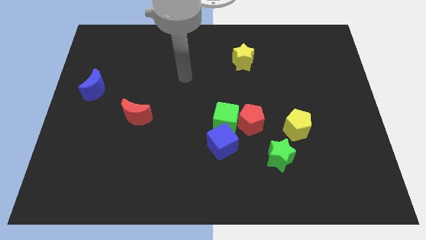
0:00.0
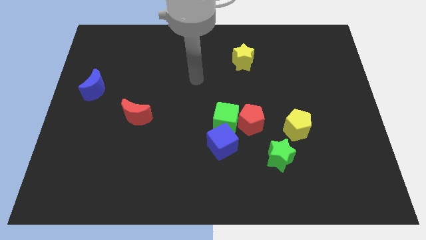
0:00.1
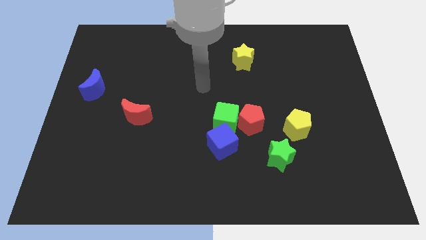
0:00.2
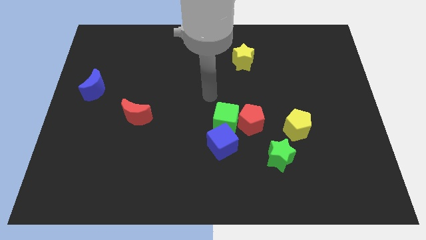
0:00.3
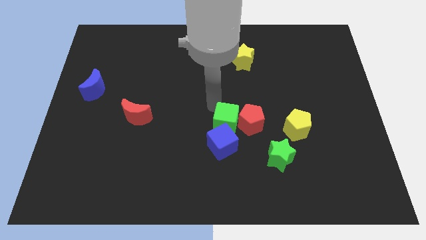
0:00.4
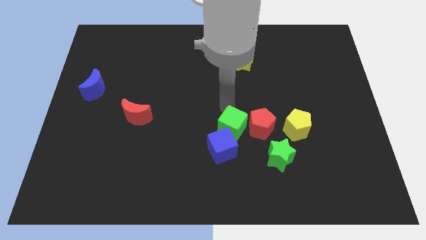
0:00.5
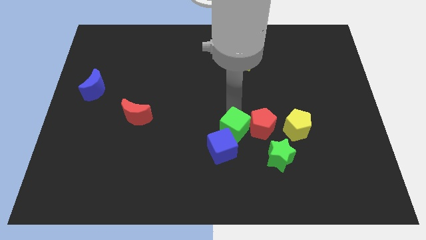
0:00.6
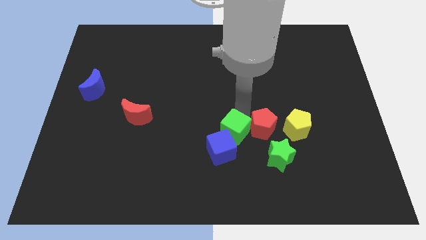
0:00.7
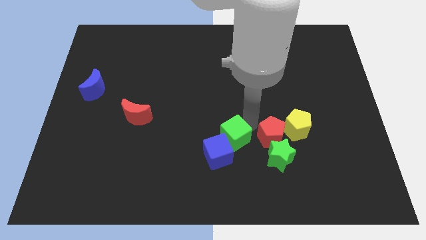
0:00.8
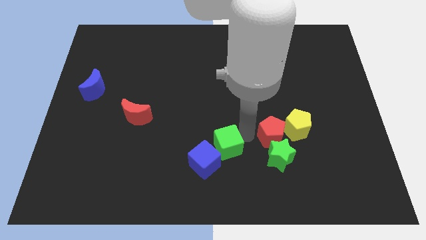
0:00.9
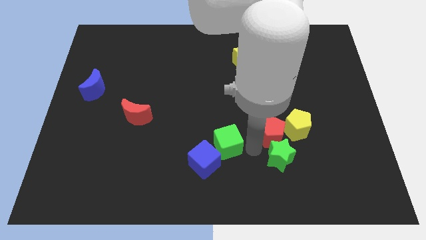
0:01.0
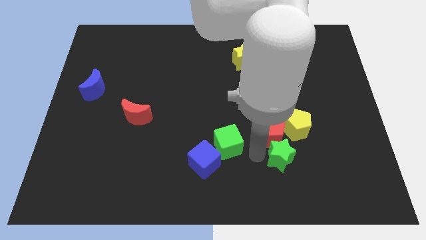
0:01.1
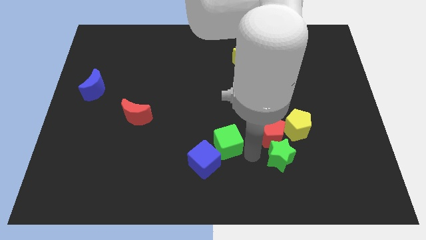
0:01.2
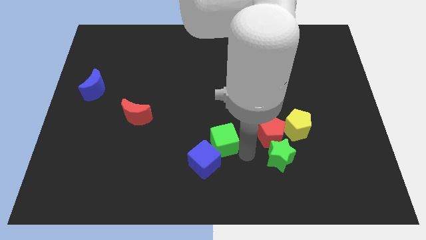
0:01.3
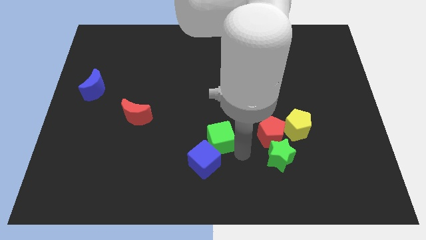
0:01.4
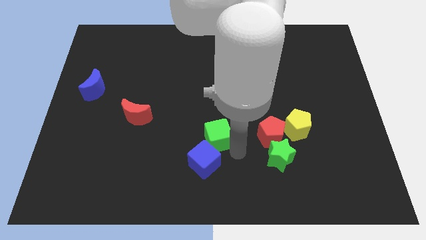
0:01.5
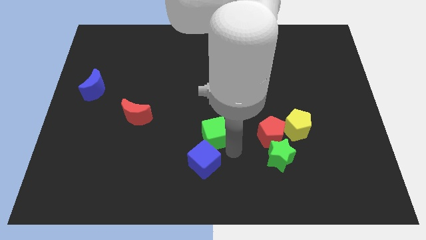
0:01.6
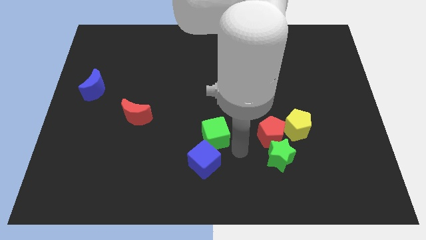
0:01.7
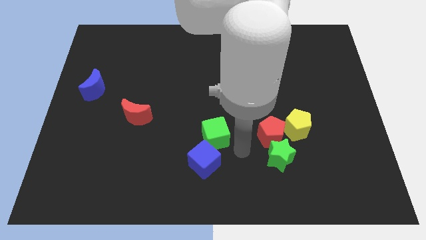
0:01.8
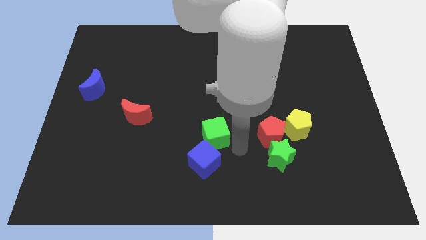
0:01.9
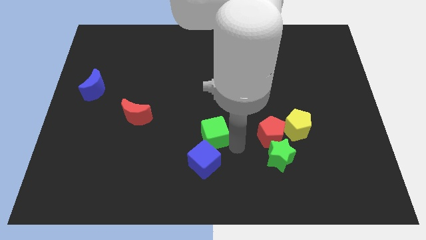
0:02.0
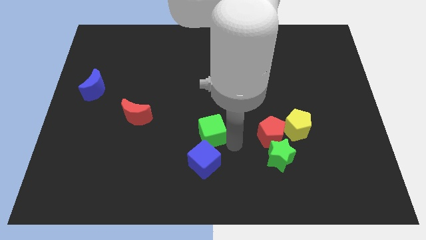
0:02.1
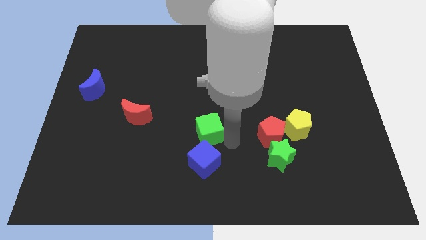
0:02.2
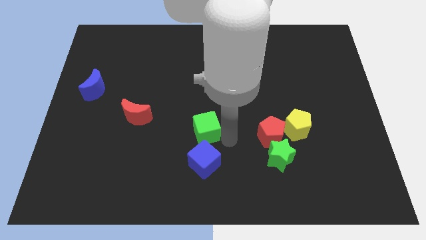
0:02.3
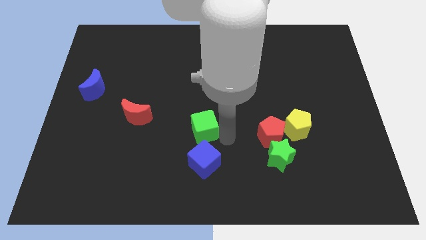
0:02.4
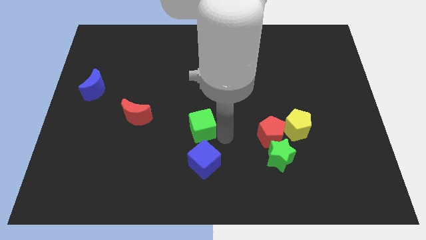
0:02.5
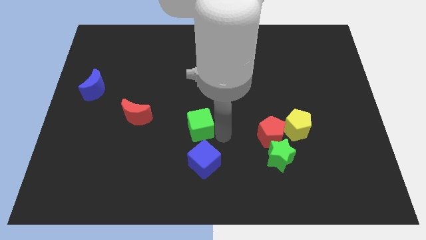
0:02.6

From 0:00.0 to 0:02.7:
separate the green cube from the red pentagon and blue cube

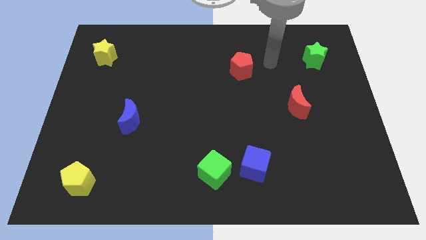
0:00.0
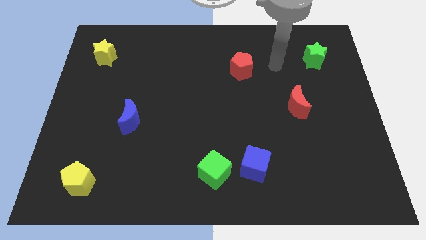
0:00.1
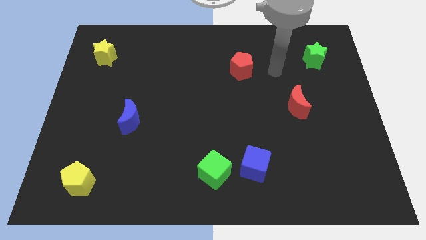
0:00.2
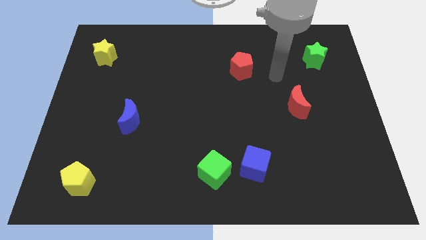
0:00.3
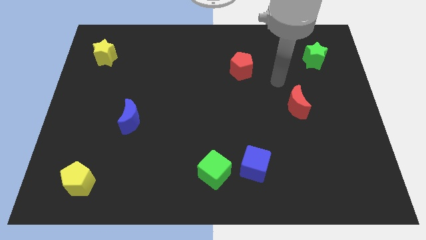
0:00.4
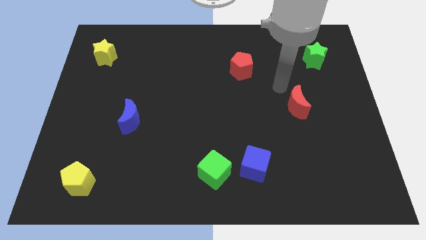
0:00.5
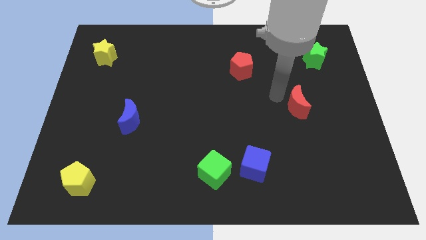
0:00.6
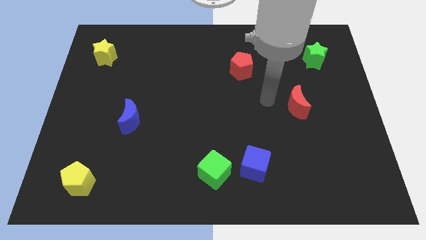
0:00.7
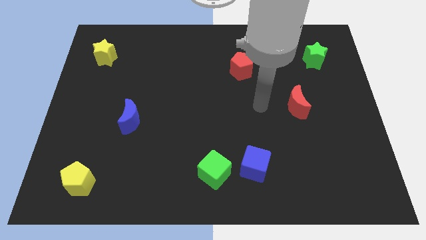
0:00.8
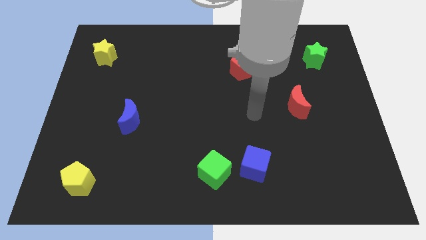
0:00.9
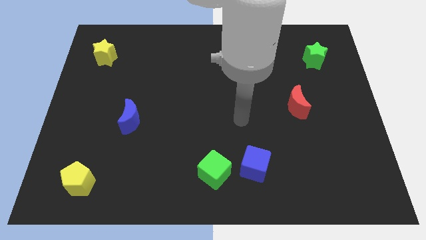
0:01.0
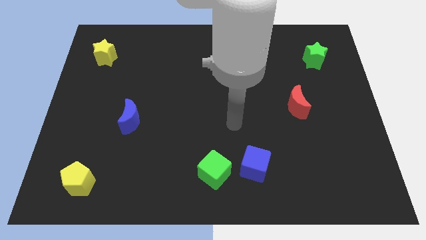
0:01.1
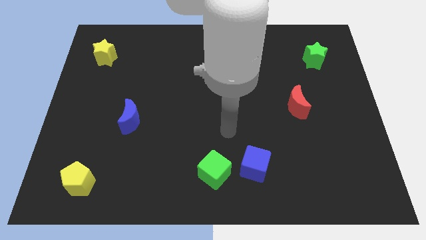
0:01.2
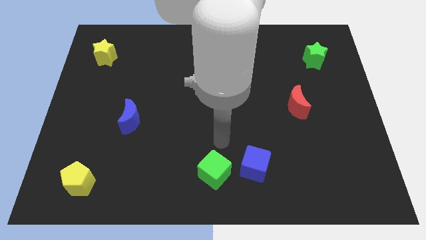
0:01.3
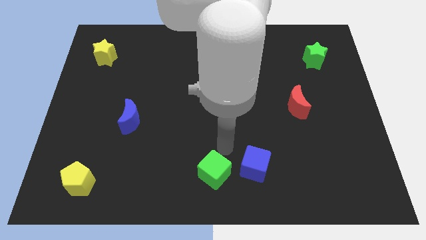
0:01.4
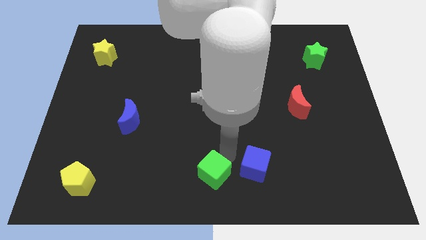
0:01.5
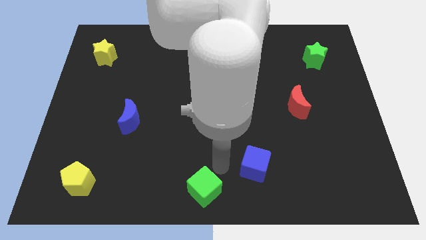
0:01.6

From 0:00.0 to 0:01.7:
move the blue cube away from the green cube

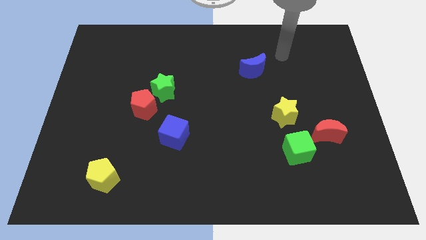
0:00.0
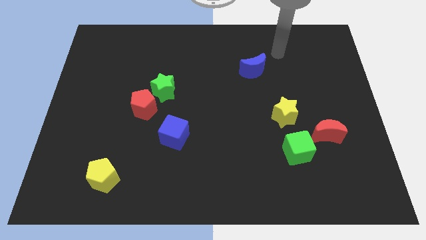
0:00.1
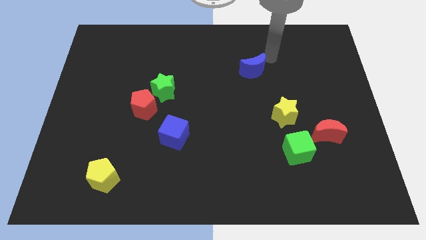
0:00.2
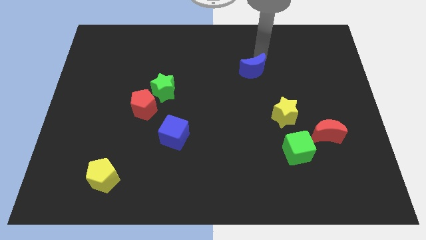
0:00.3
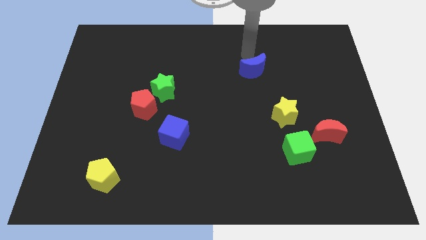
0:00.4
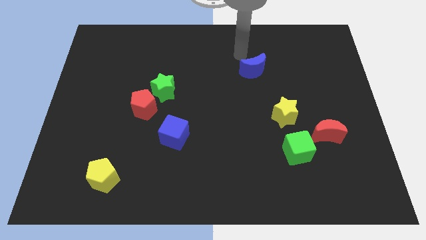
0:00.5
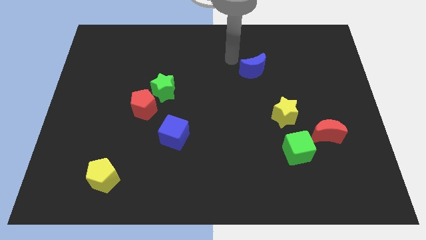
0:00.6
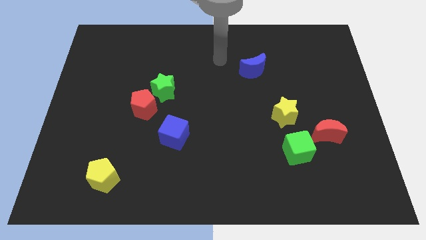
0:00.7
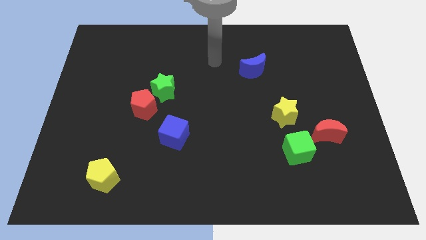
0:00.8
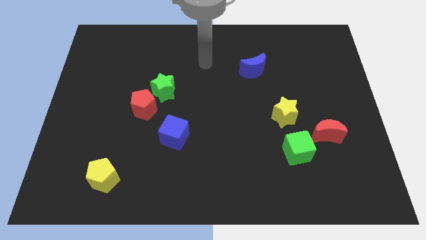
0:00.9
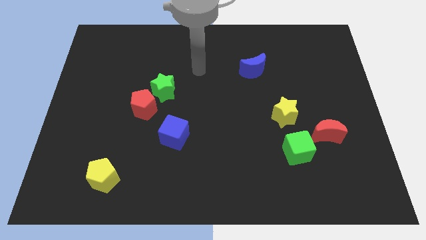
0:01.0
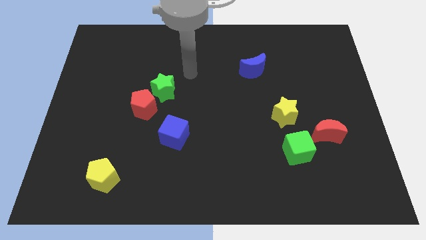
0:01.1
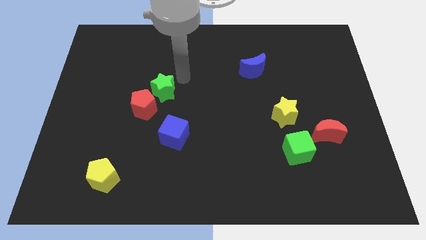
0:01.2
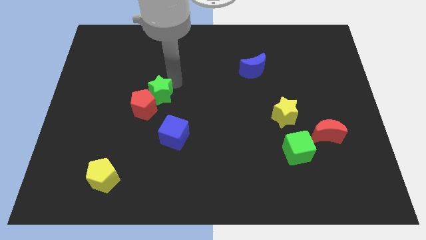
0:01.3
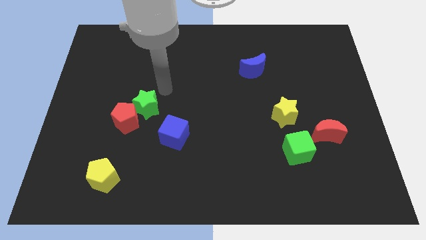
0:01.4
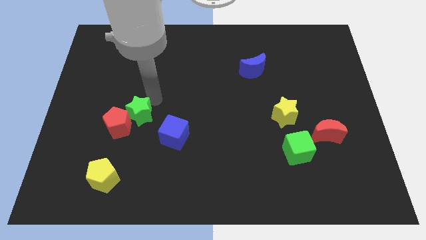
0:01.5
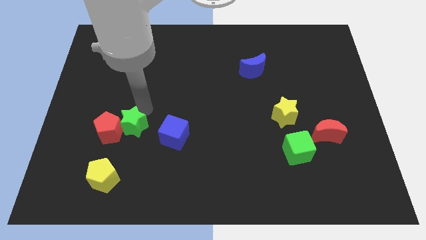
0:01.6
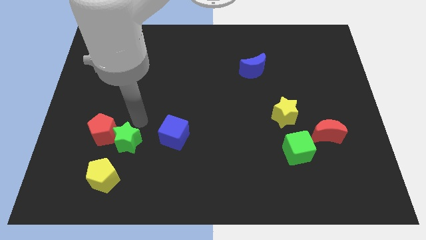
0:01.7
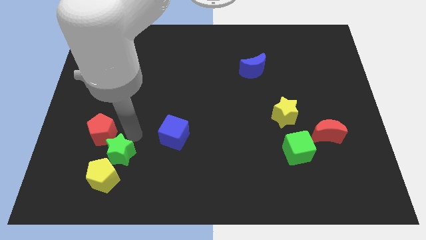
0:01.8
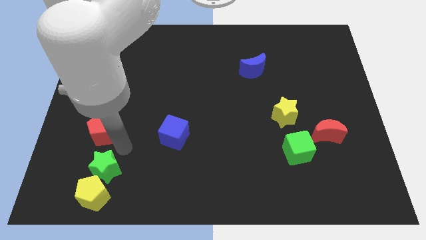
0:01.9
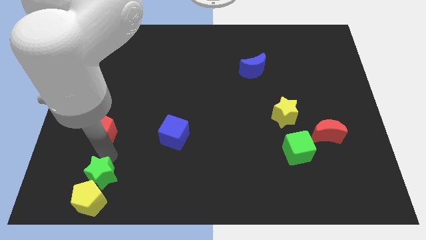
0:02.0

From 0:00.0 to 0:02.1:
separate the red pentagon from the green star

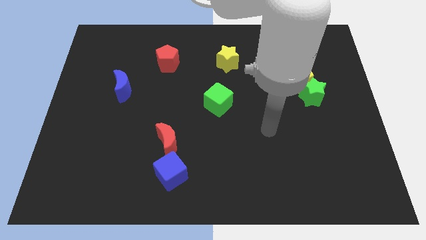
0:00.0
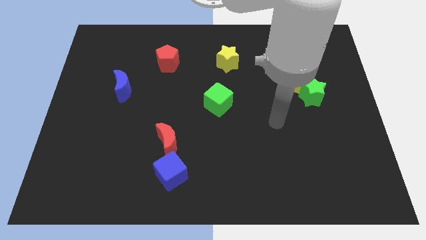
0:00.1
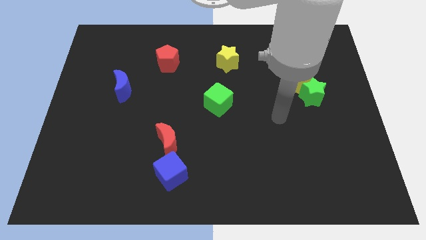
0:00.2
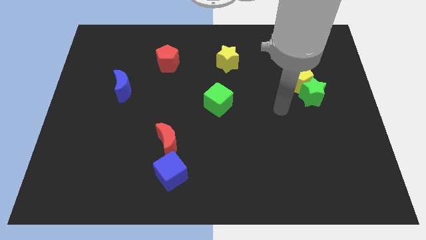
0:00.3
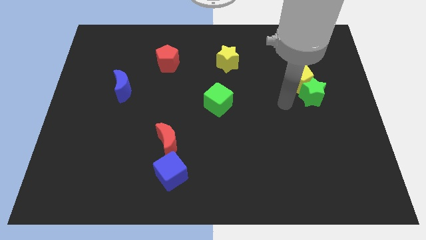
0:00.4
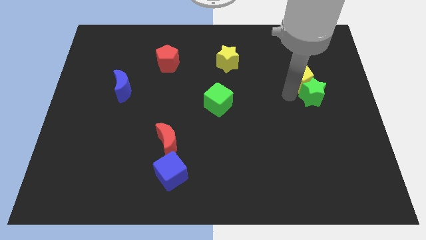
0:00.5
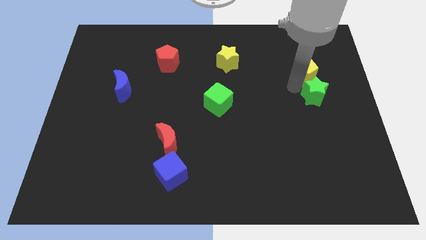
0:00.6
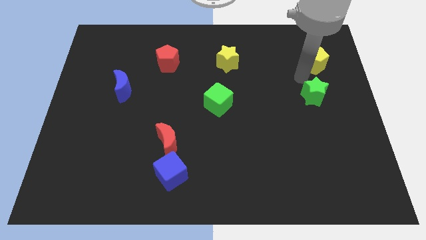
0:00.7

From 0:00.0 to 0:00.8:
separate the green star from the yellow pentagon

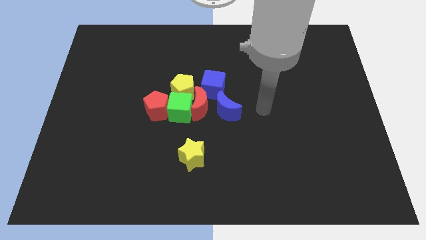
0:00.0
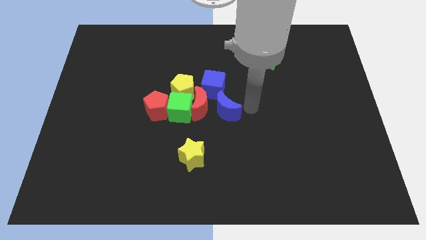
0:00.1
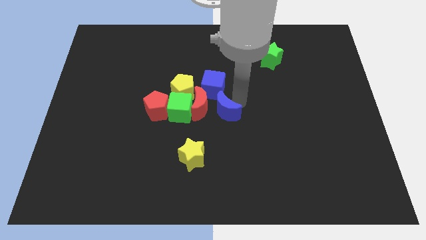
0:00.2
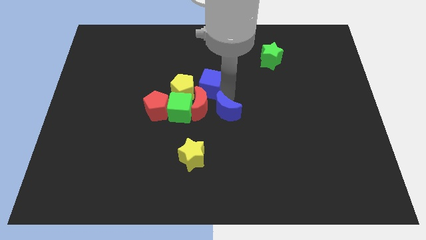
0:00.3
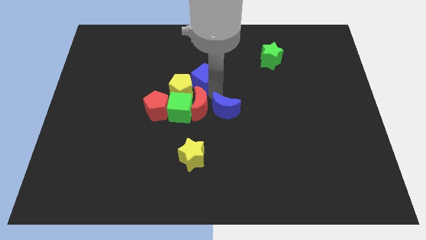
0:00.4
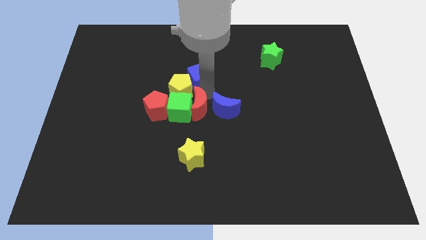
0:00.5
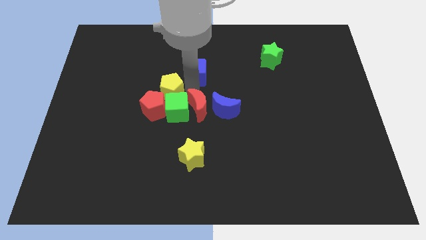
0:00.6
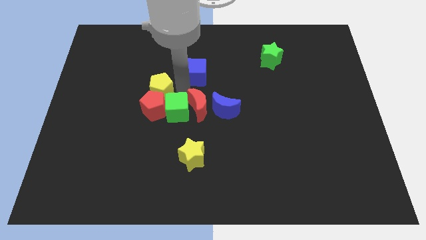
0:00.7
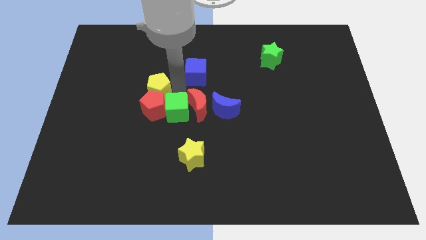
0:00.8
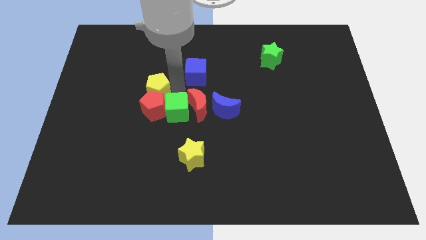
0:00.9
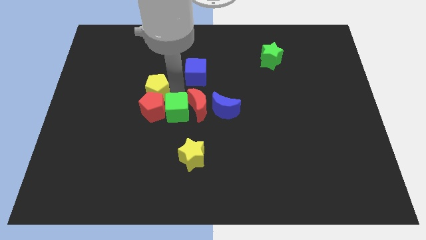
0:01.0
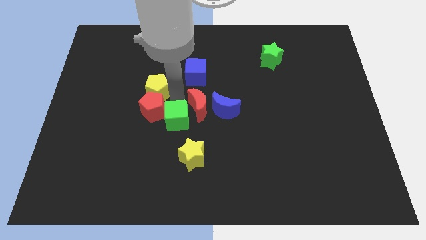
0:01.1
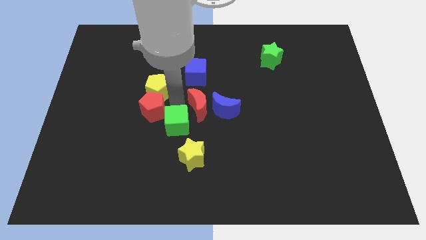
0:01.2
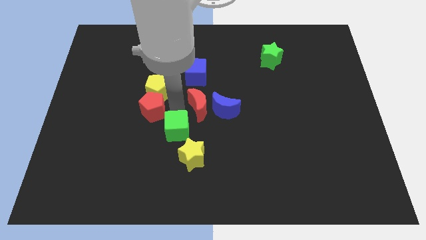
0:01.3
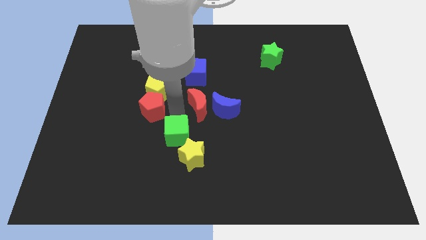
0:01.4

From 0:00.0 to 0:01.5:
move the green cube away from the group of blocks

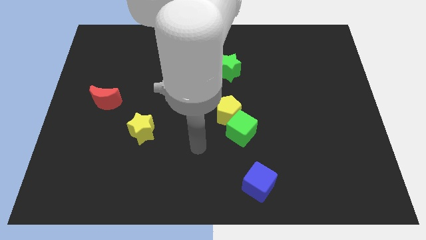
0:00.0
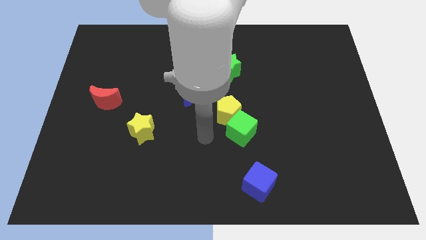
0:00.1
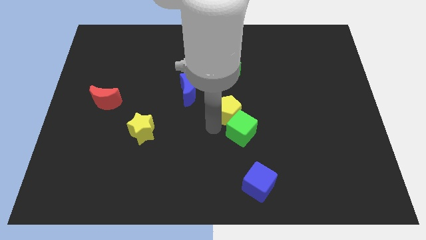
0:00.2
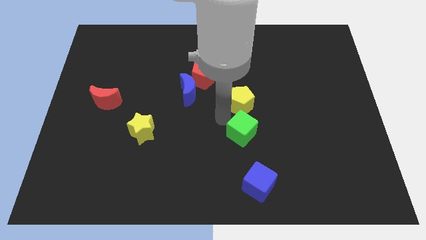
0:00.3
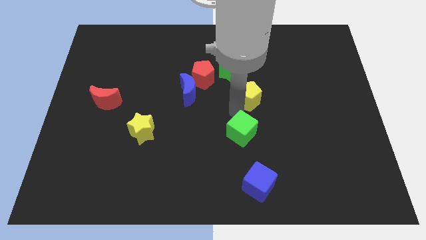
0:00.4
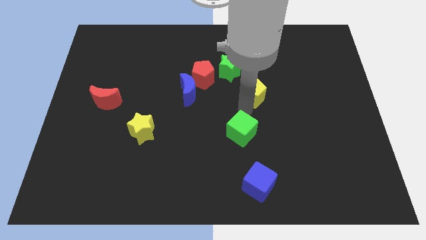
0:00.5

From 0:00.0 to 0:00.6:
pull the green cube apart from the yellow pentagon

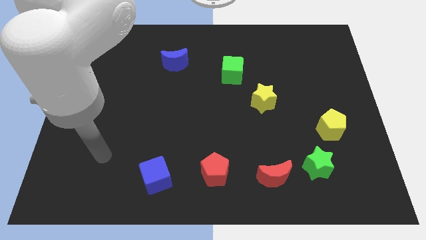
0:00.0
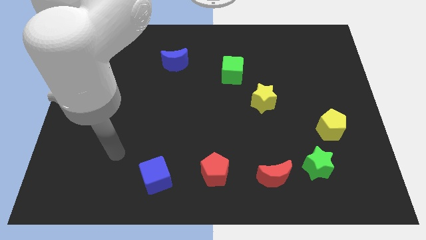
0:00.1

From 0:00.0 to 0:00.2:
move the red moon away from the green star
